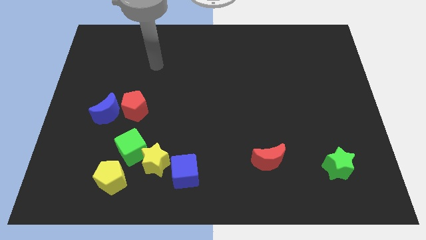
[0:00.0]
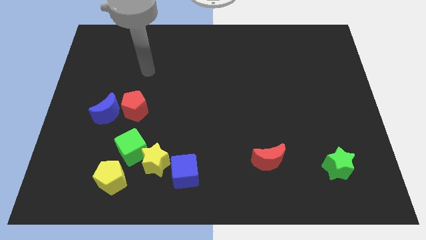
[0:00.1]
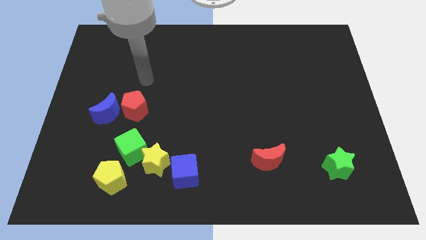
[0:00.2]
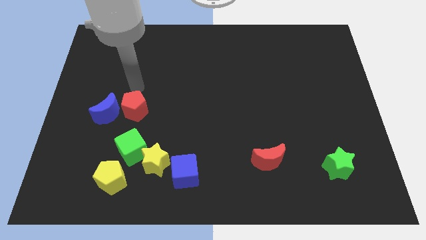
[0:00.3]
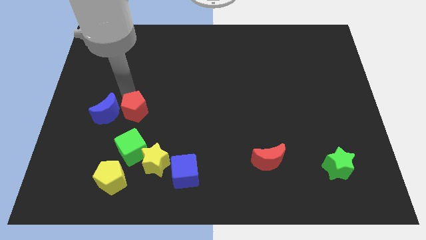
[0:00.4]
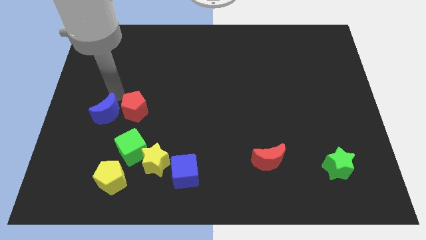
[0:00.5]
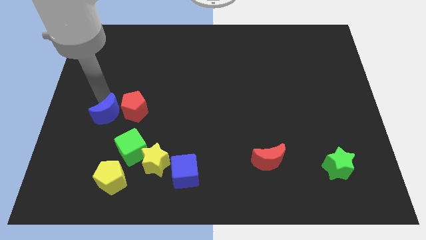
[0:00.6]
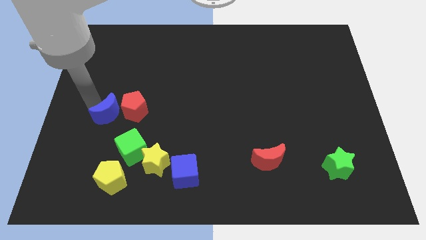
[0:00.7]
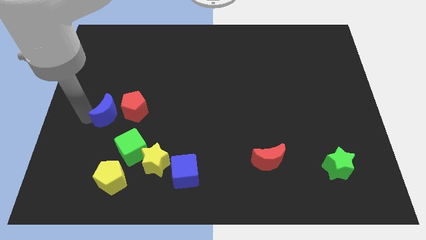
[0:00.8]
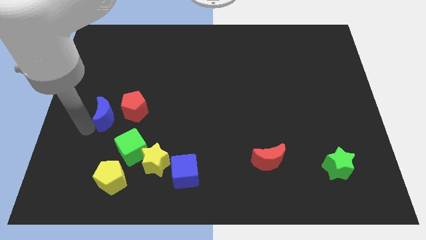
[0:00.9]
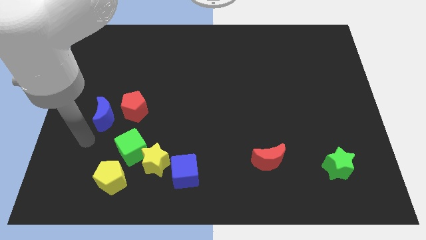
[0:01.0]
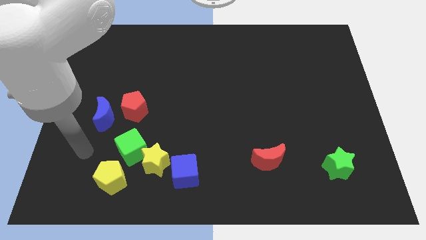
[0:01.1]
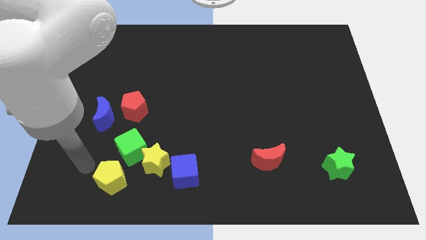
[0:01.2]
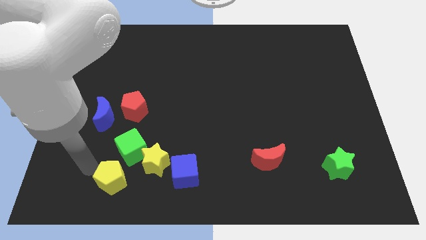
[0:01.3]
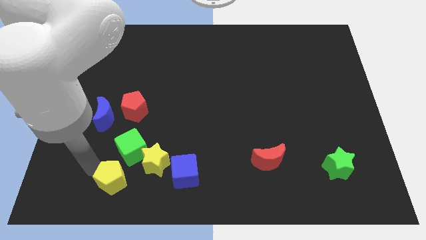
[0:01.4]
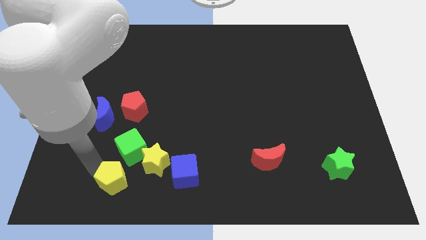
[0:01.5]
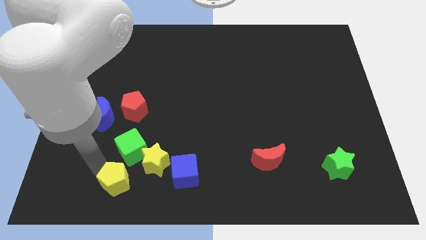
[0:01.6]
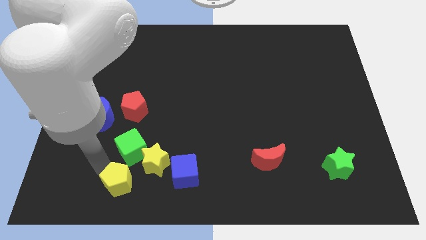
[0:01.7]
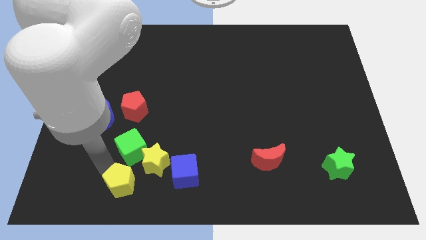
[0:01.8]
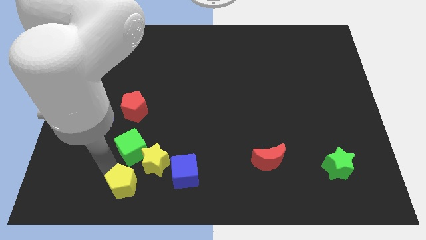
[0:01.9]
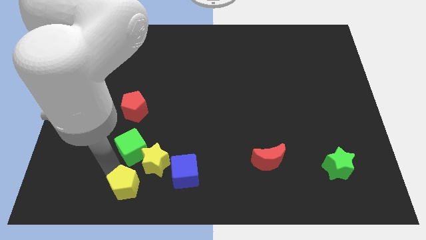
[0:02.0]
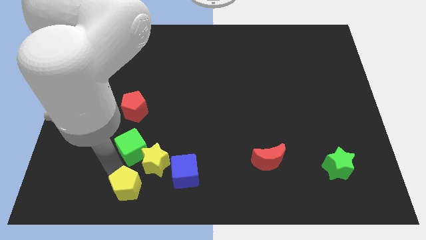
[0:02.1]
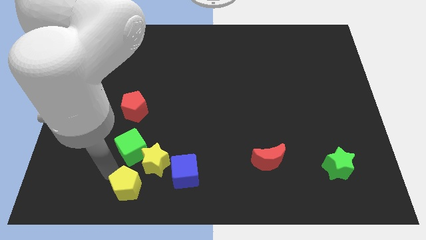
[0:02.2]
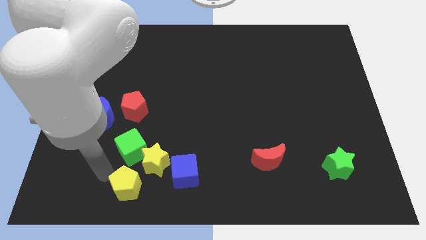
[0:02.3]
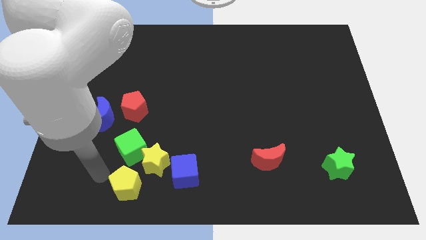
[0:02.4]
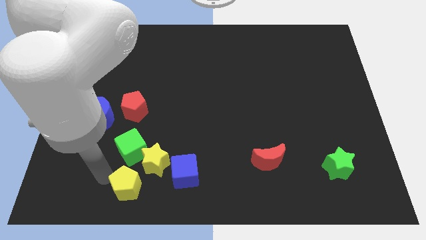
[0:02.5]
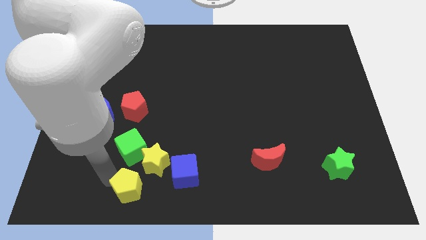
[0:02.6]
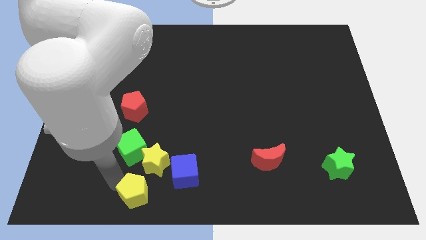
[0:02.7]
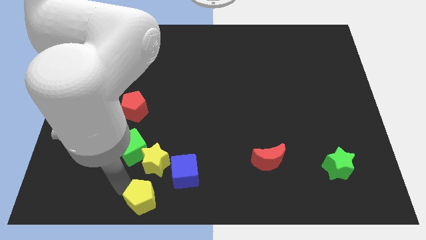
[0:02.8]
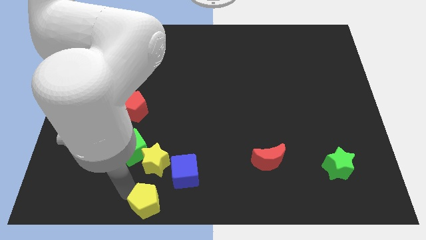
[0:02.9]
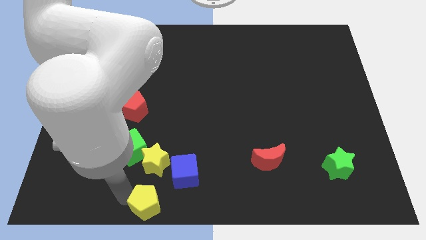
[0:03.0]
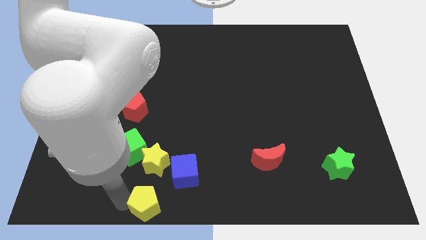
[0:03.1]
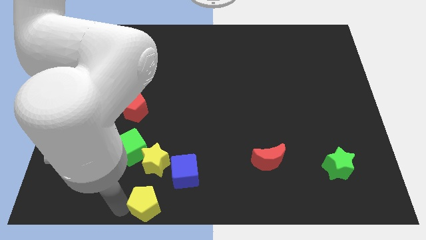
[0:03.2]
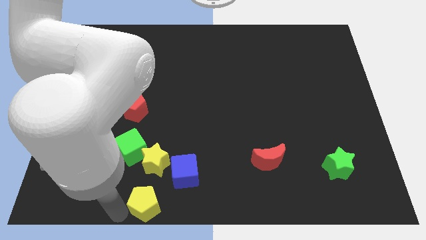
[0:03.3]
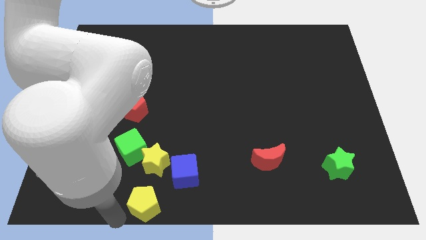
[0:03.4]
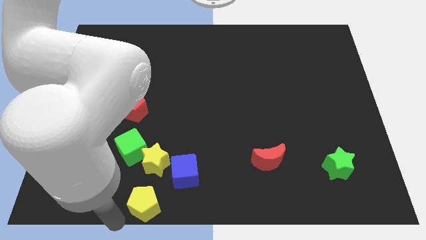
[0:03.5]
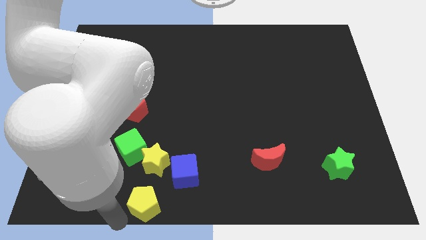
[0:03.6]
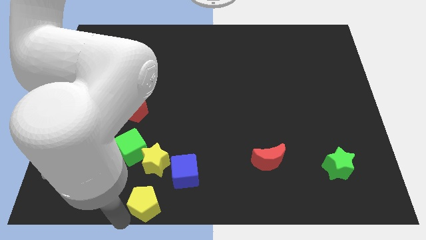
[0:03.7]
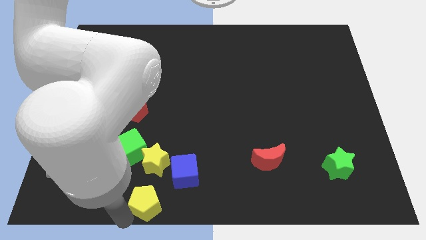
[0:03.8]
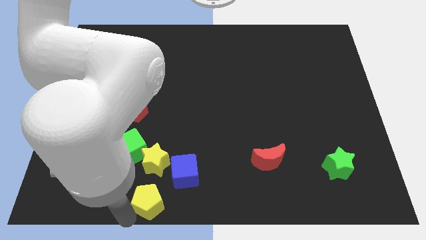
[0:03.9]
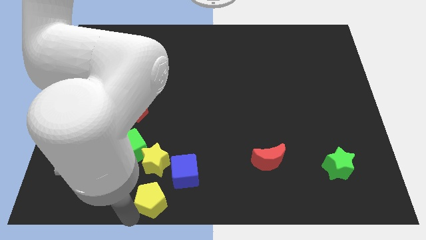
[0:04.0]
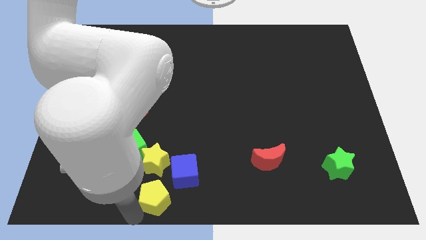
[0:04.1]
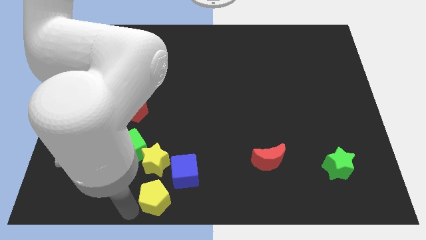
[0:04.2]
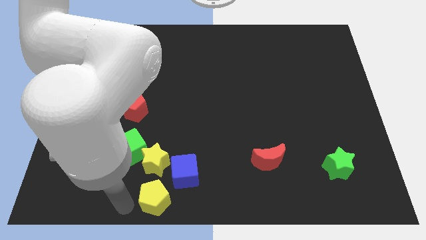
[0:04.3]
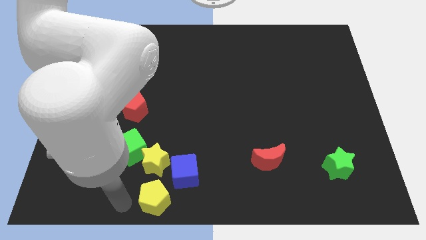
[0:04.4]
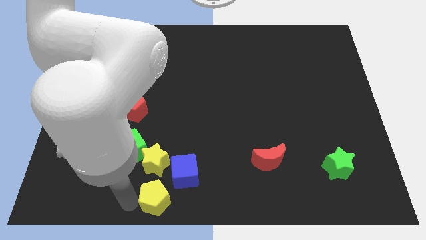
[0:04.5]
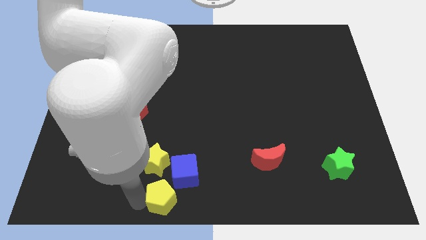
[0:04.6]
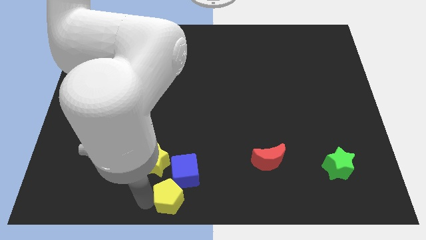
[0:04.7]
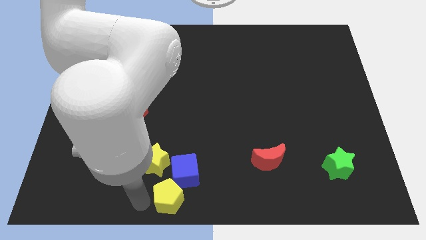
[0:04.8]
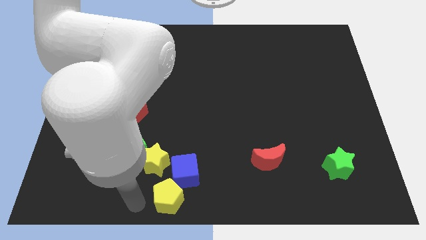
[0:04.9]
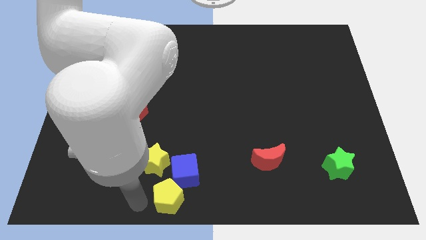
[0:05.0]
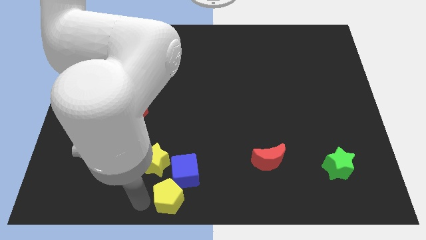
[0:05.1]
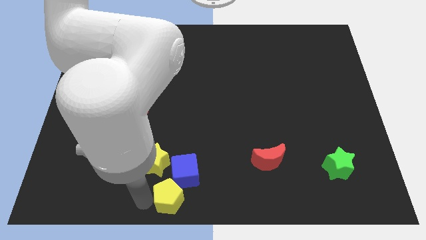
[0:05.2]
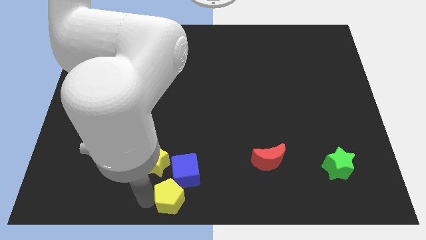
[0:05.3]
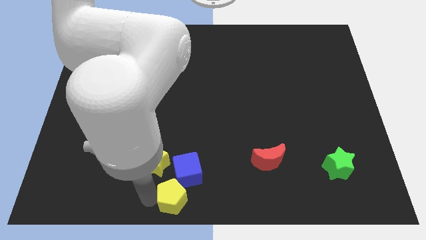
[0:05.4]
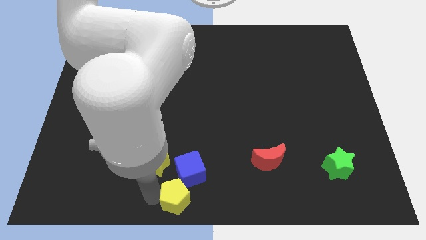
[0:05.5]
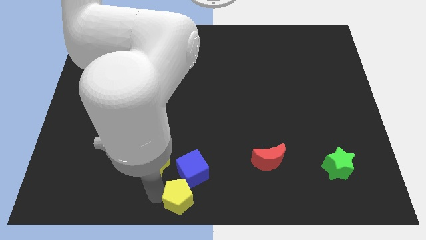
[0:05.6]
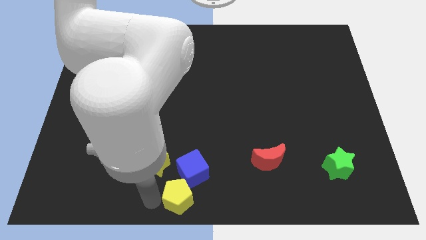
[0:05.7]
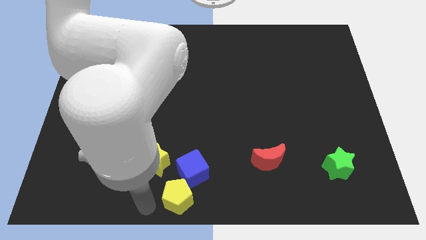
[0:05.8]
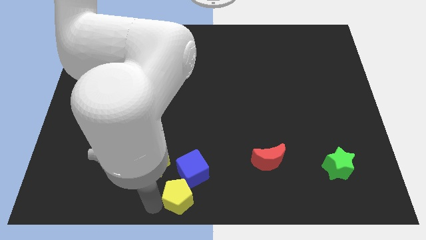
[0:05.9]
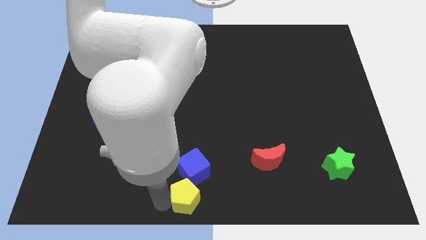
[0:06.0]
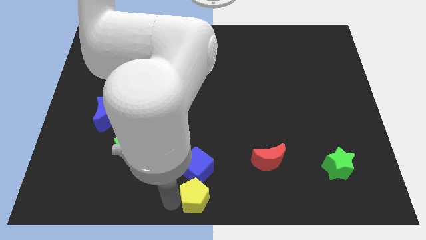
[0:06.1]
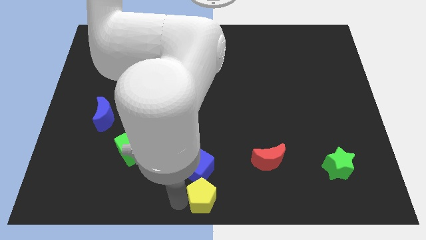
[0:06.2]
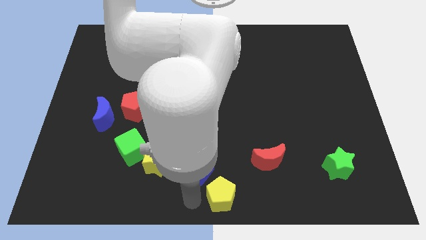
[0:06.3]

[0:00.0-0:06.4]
move the yellow pentagon to the right

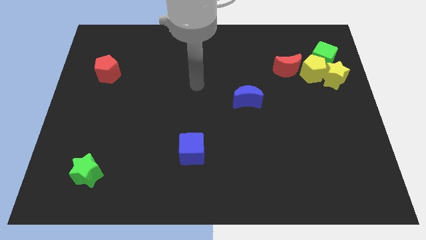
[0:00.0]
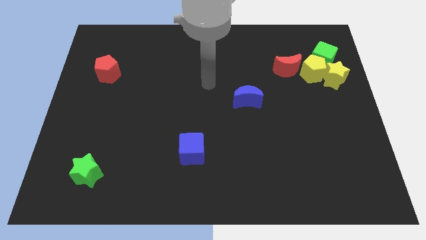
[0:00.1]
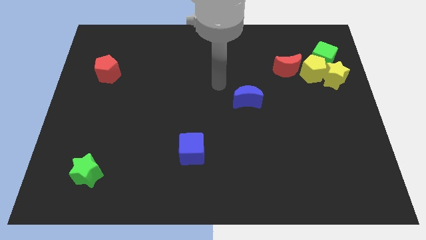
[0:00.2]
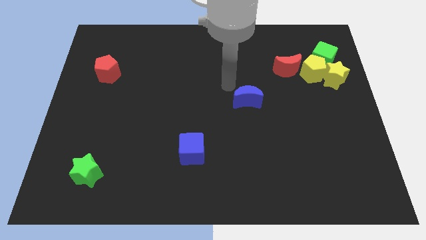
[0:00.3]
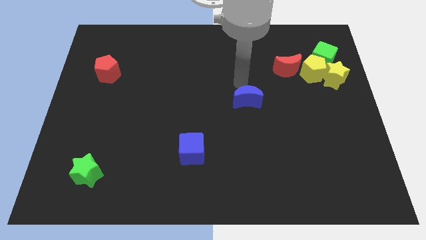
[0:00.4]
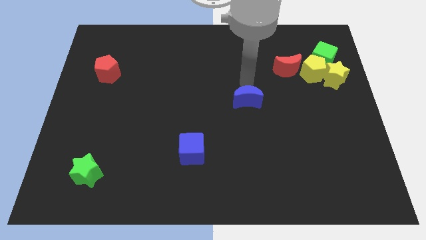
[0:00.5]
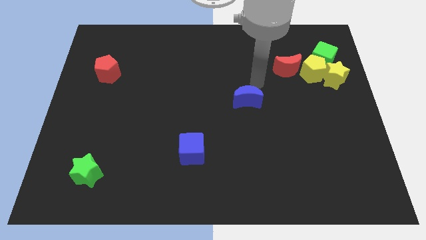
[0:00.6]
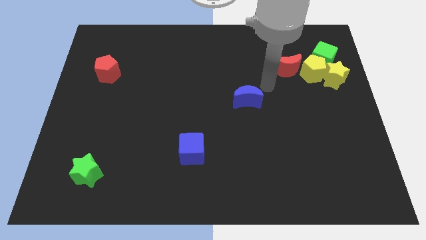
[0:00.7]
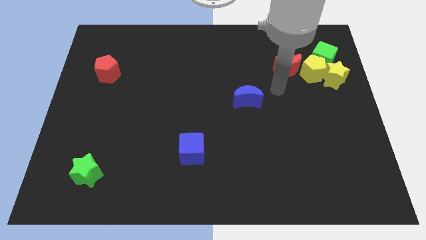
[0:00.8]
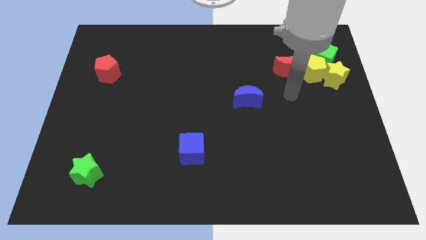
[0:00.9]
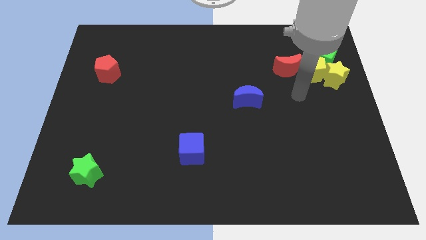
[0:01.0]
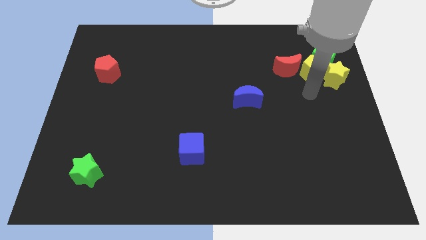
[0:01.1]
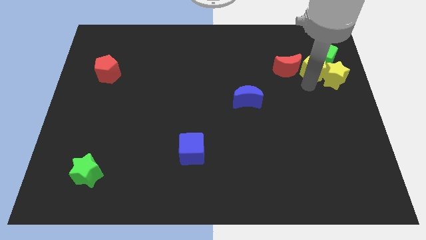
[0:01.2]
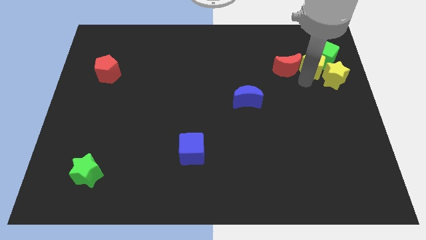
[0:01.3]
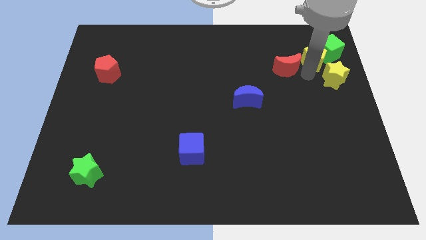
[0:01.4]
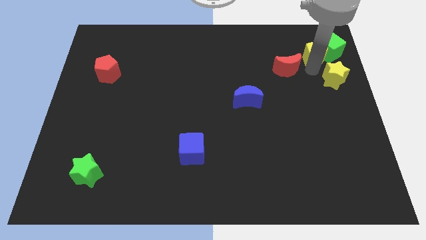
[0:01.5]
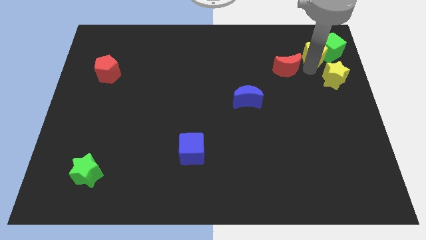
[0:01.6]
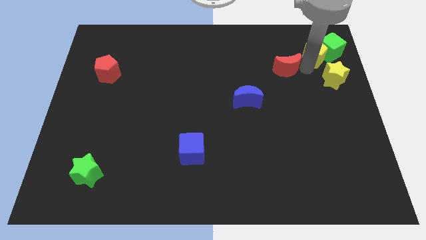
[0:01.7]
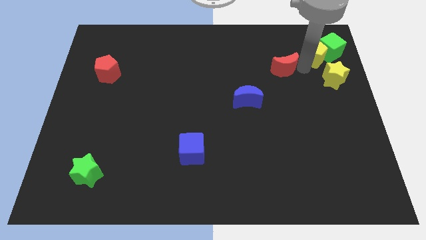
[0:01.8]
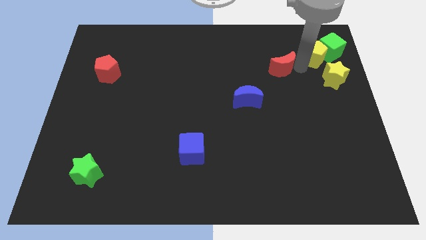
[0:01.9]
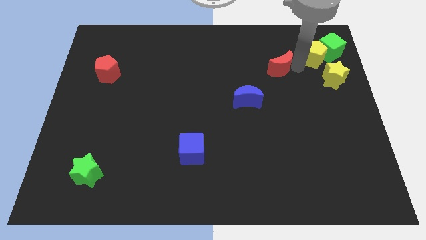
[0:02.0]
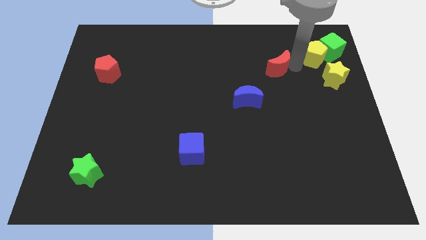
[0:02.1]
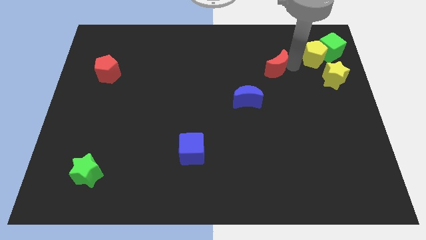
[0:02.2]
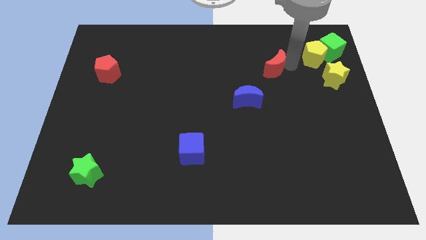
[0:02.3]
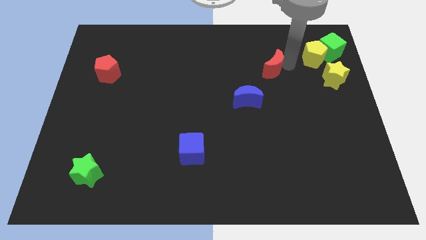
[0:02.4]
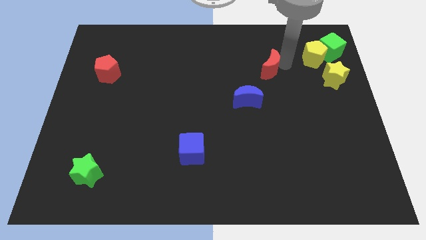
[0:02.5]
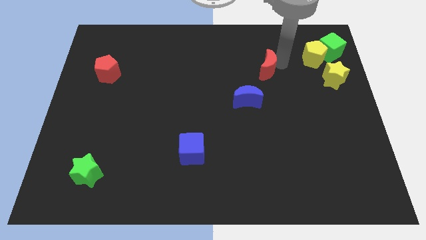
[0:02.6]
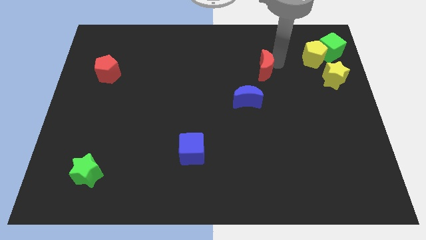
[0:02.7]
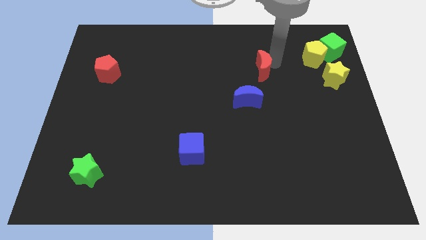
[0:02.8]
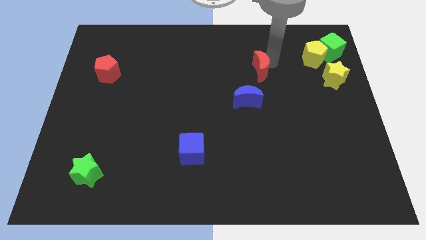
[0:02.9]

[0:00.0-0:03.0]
move the red moon left a bit
